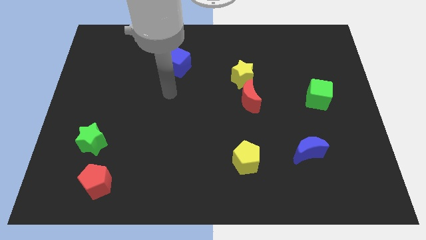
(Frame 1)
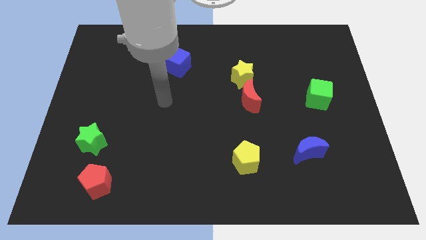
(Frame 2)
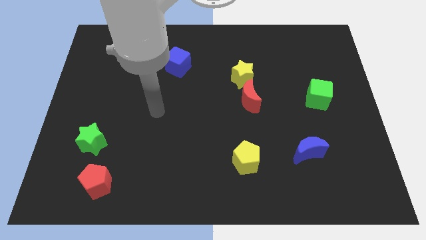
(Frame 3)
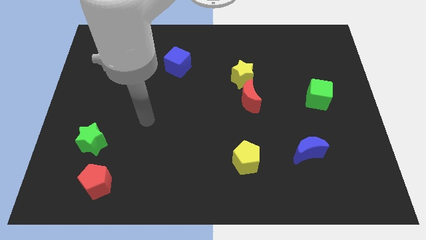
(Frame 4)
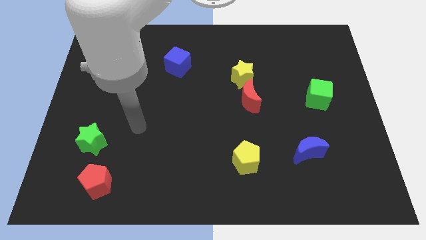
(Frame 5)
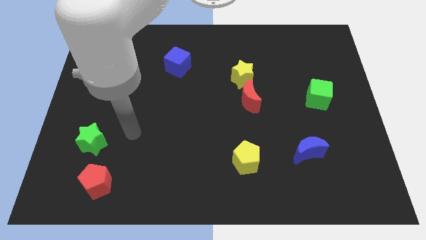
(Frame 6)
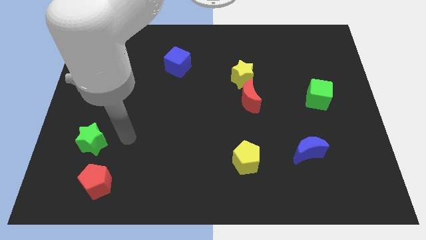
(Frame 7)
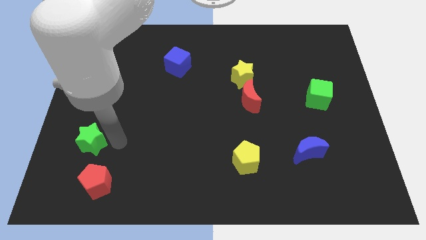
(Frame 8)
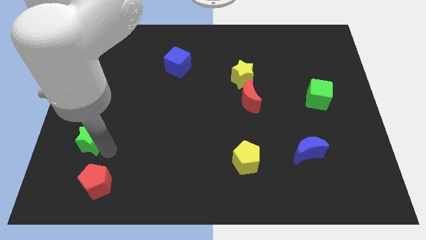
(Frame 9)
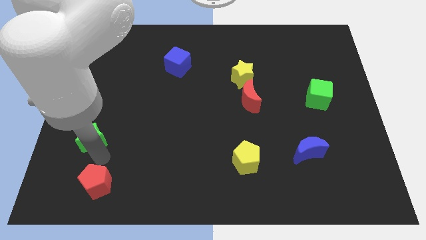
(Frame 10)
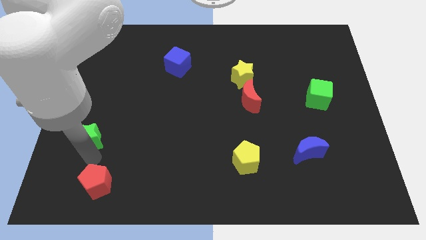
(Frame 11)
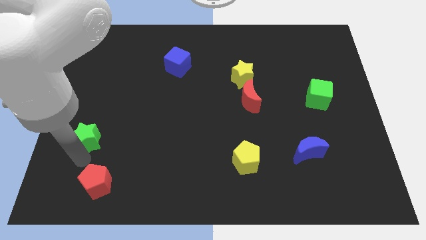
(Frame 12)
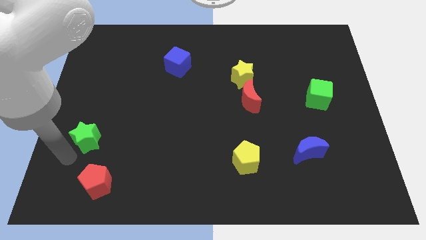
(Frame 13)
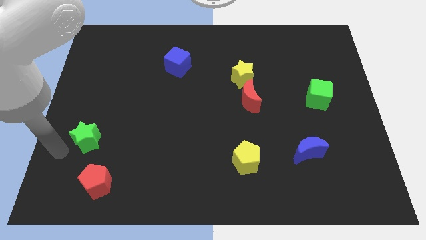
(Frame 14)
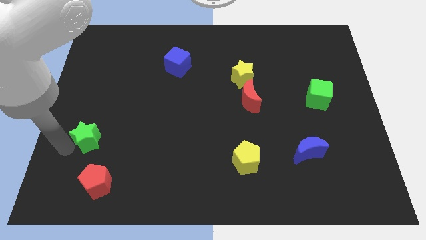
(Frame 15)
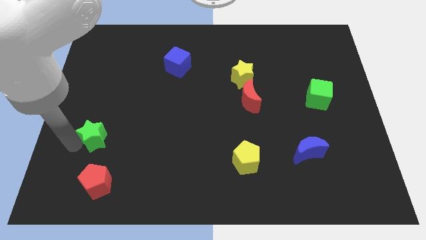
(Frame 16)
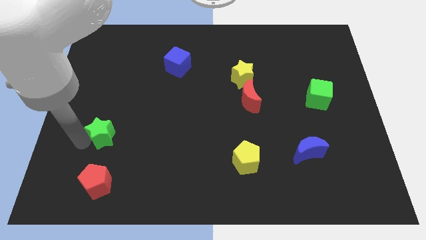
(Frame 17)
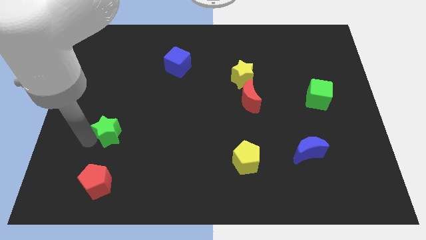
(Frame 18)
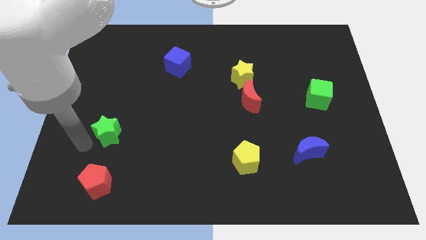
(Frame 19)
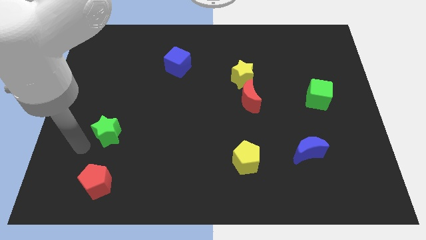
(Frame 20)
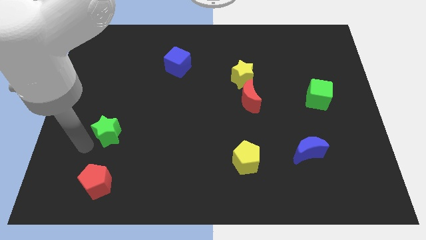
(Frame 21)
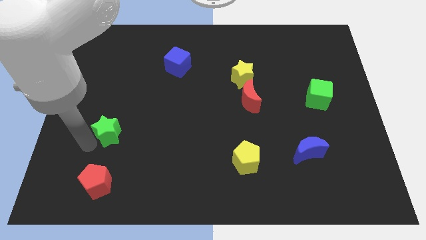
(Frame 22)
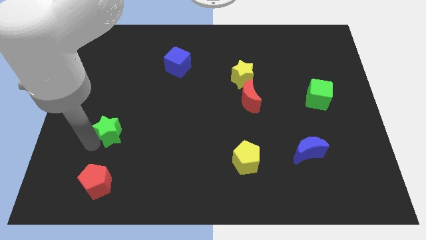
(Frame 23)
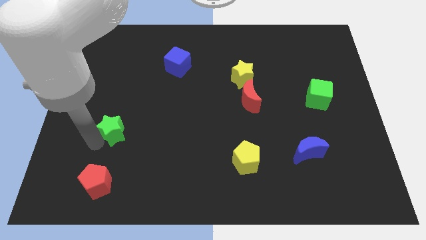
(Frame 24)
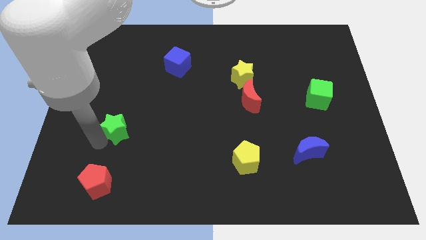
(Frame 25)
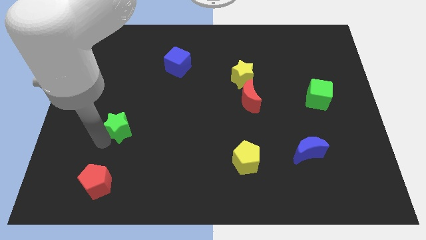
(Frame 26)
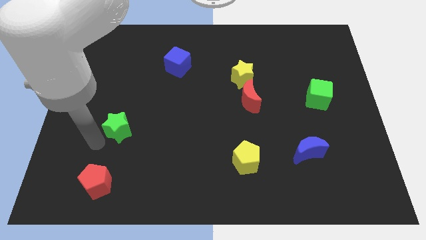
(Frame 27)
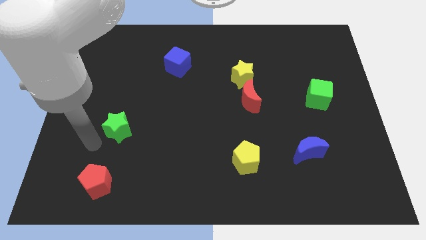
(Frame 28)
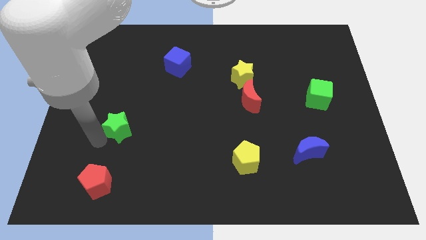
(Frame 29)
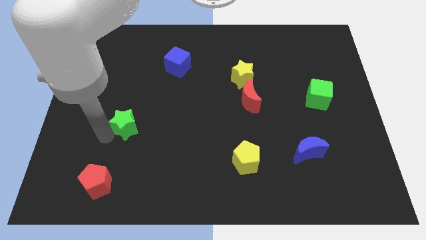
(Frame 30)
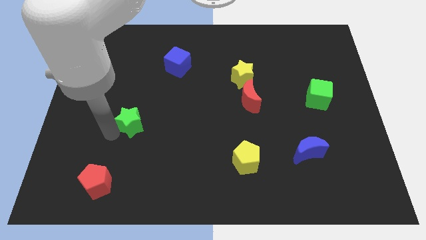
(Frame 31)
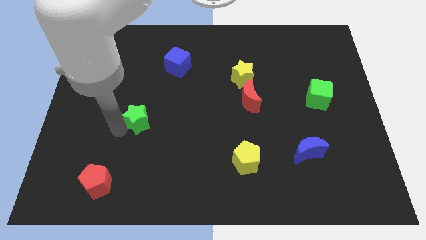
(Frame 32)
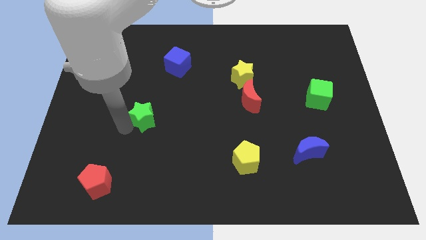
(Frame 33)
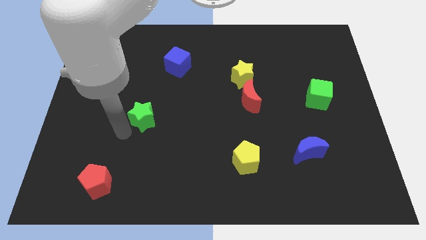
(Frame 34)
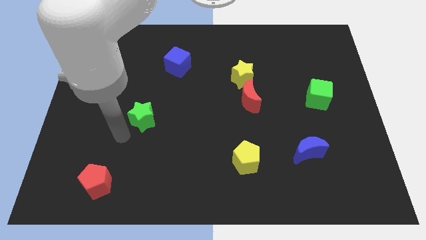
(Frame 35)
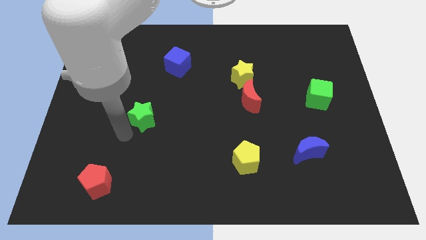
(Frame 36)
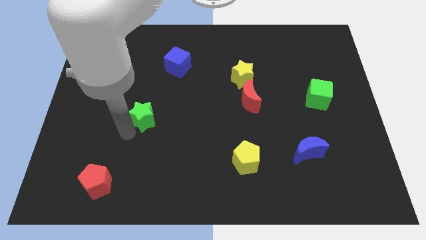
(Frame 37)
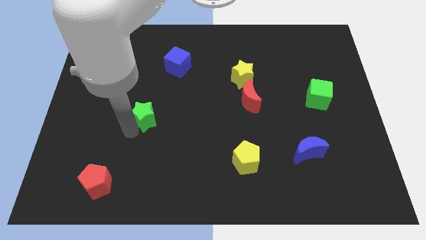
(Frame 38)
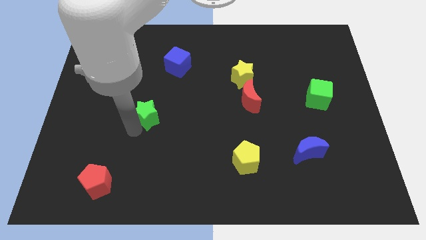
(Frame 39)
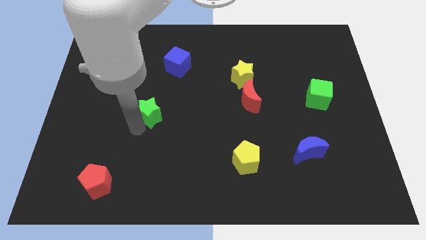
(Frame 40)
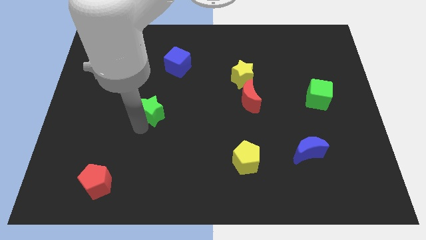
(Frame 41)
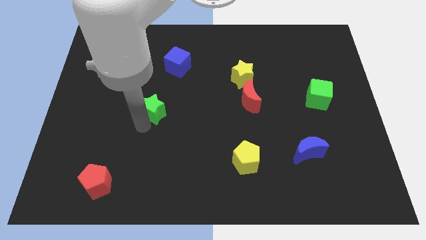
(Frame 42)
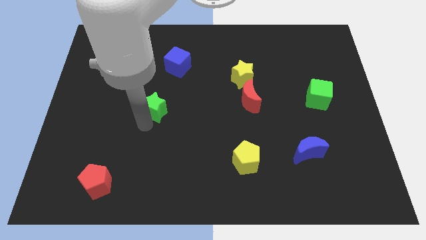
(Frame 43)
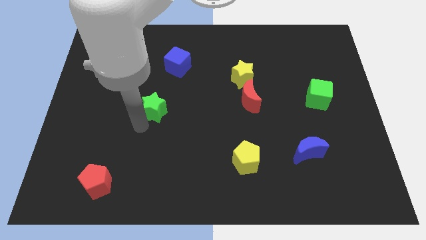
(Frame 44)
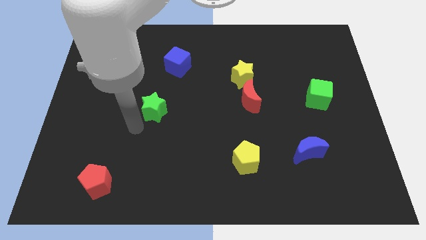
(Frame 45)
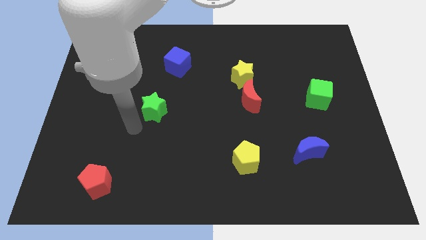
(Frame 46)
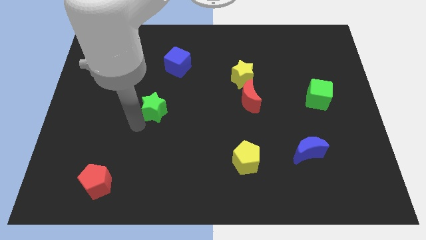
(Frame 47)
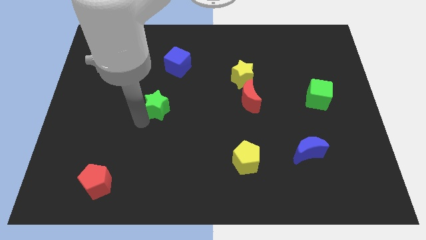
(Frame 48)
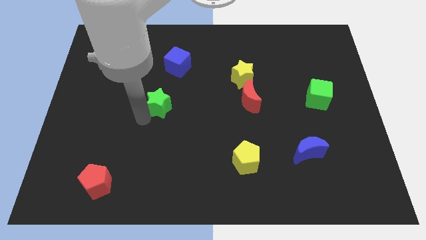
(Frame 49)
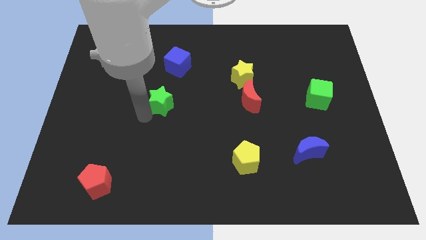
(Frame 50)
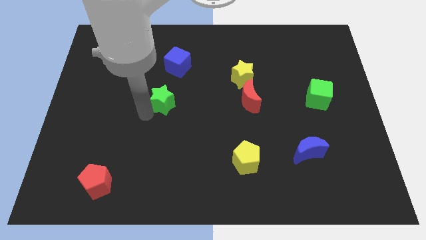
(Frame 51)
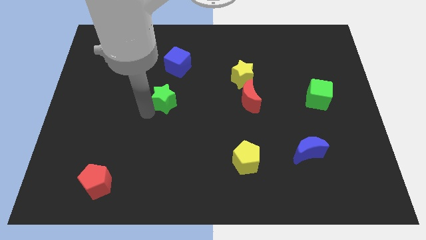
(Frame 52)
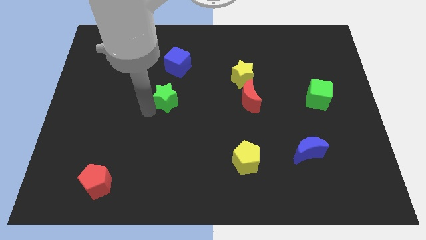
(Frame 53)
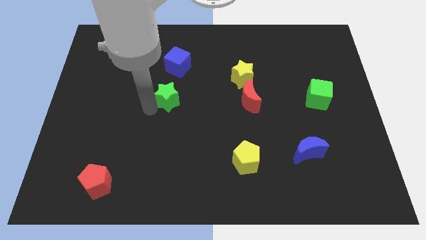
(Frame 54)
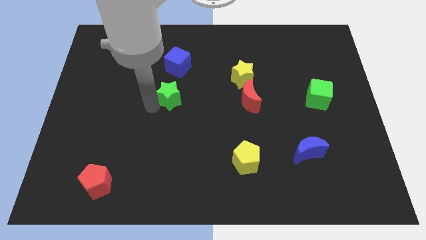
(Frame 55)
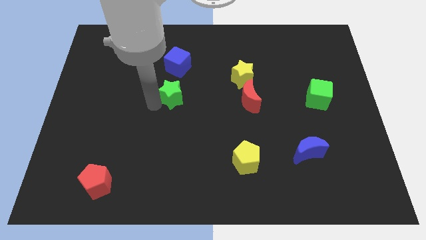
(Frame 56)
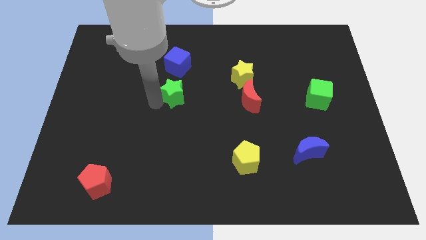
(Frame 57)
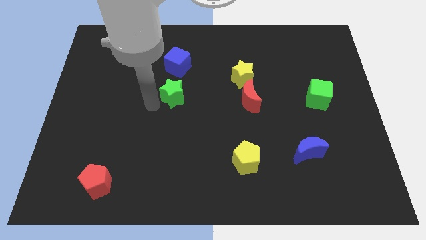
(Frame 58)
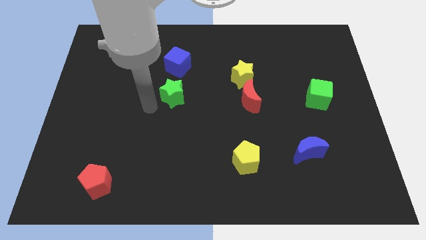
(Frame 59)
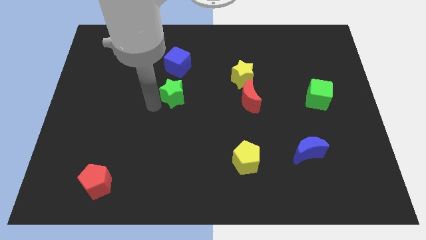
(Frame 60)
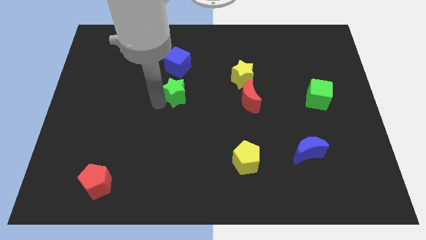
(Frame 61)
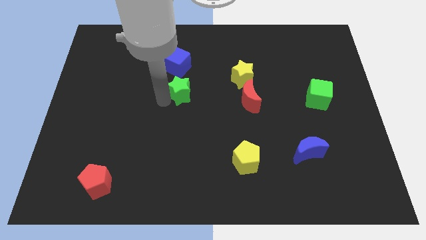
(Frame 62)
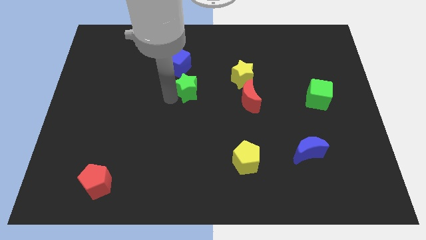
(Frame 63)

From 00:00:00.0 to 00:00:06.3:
slide the green star just left of the yellow star
